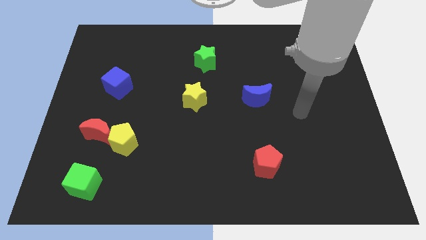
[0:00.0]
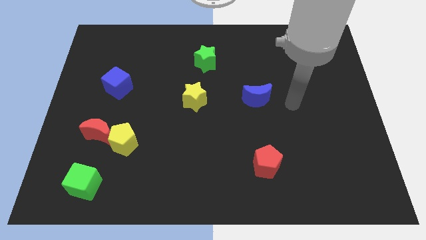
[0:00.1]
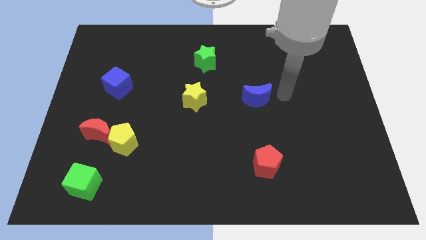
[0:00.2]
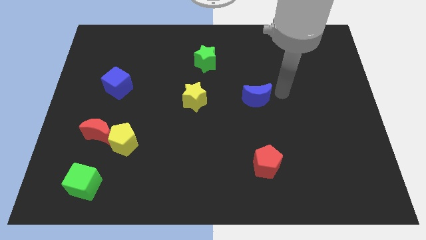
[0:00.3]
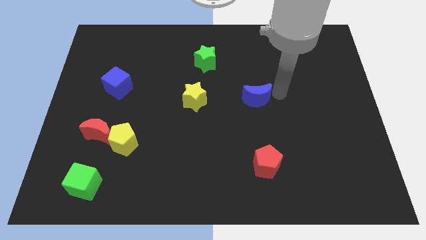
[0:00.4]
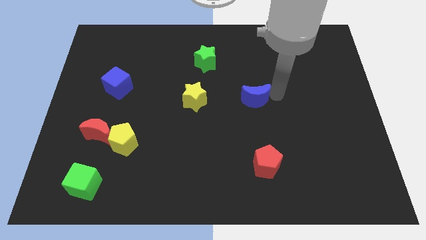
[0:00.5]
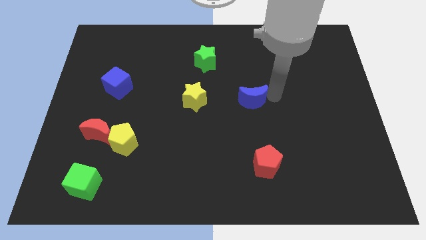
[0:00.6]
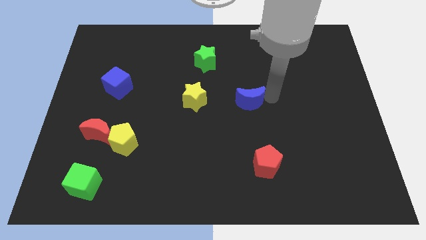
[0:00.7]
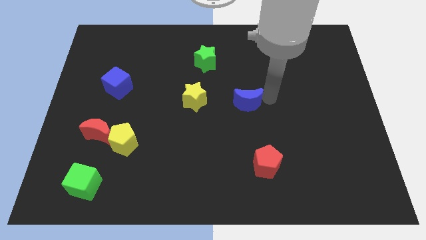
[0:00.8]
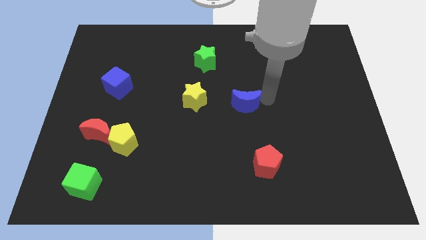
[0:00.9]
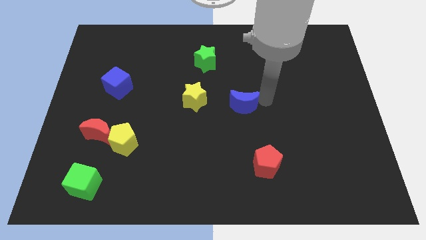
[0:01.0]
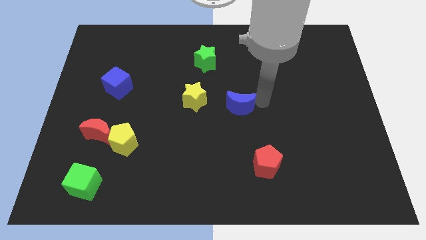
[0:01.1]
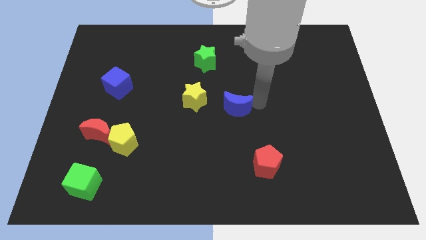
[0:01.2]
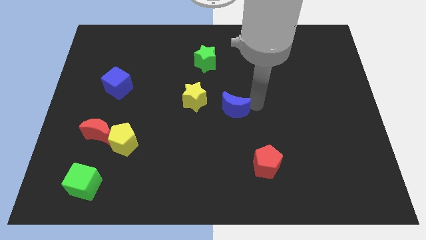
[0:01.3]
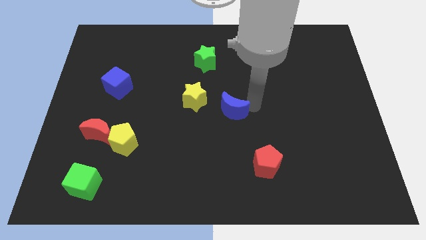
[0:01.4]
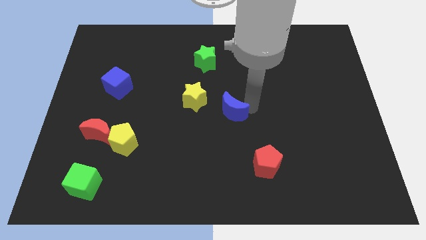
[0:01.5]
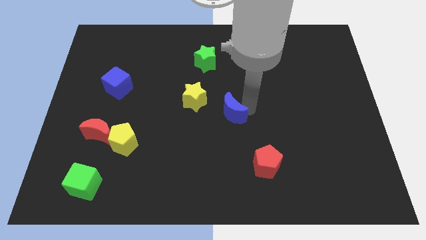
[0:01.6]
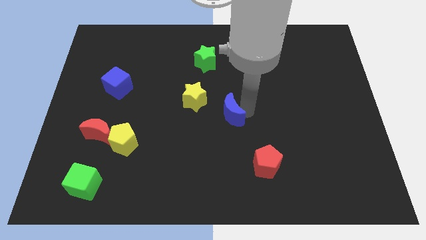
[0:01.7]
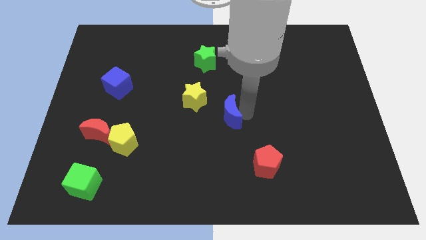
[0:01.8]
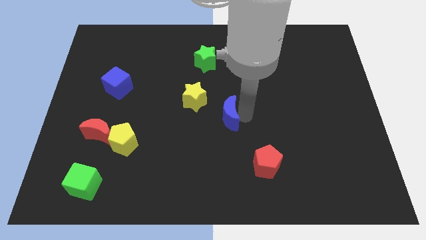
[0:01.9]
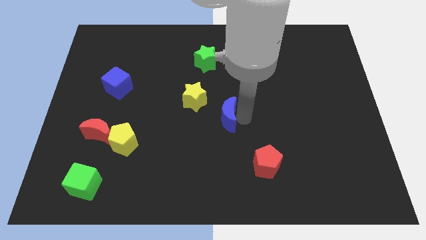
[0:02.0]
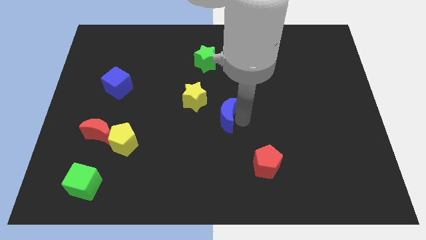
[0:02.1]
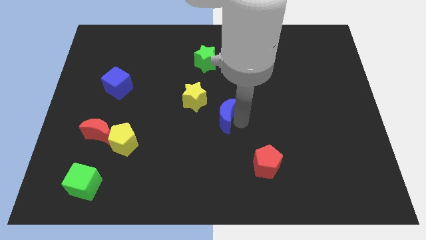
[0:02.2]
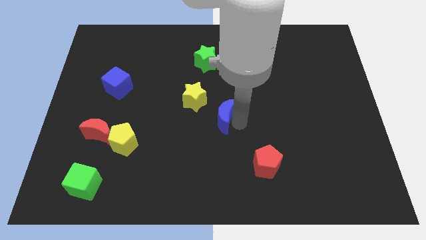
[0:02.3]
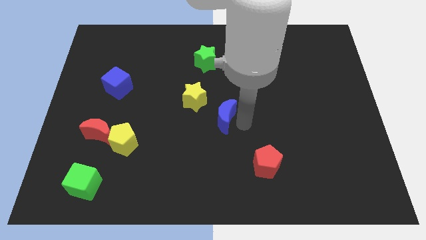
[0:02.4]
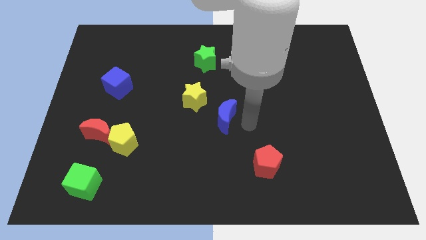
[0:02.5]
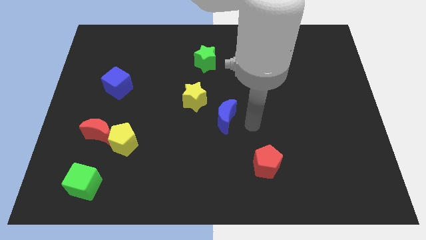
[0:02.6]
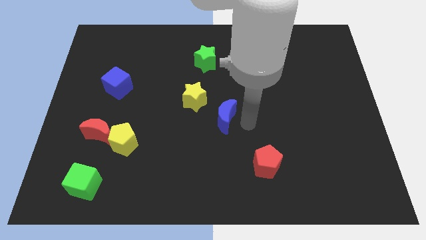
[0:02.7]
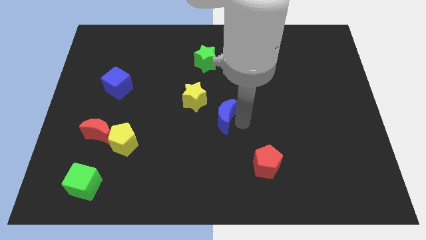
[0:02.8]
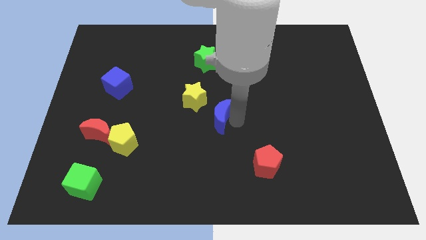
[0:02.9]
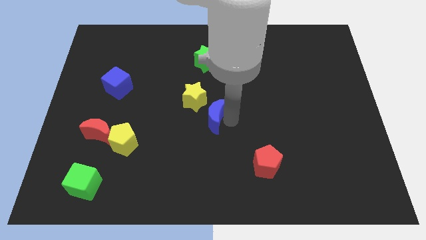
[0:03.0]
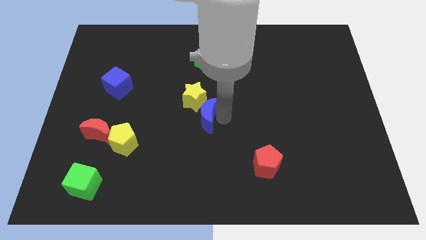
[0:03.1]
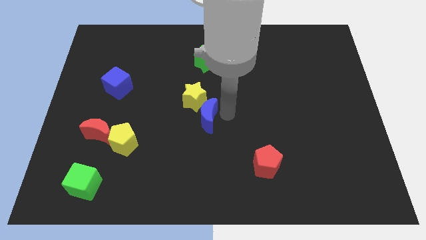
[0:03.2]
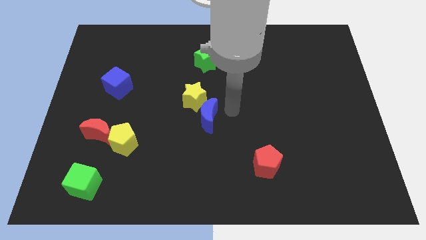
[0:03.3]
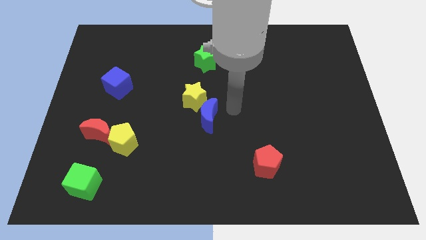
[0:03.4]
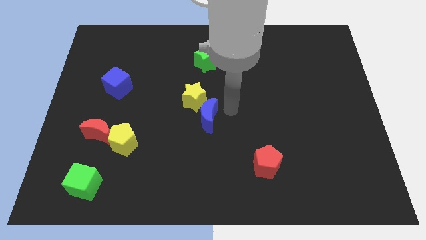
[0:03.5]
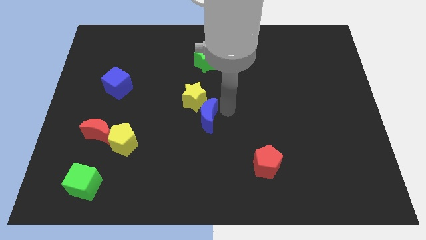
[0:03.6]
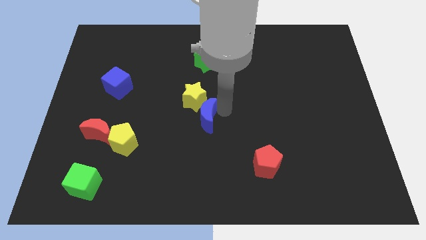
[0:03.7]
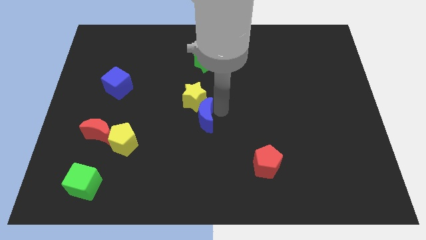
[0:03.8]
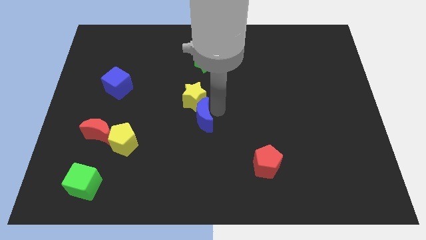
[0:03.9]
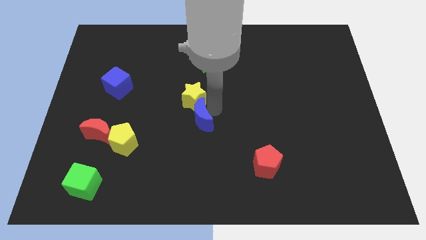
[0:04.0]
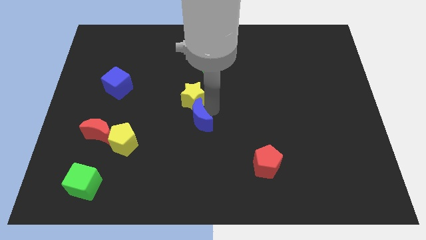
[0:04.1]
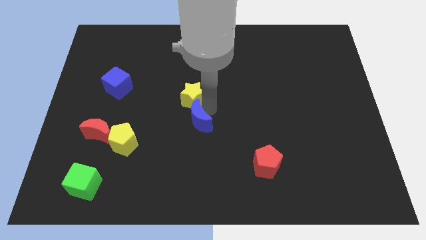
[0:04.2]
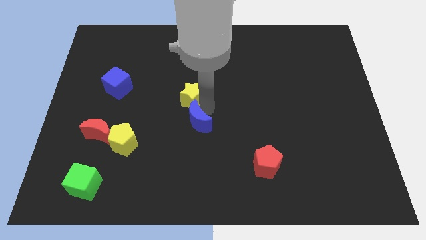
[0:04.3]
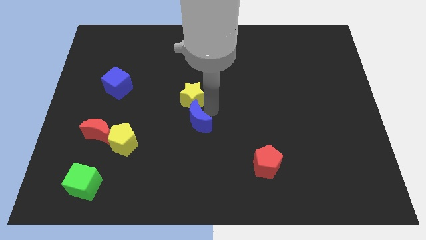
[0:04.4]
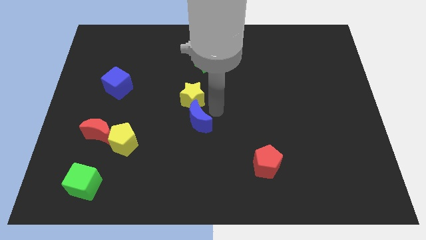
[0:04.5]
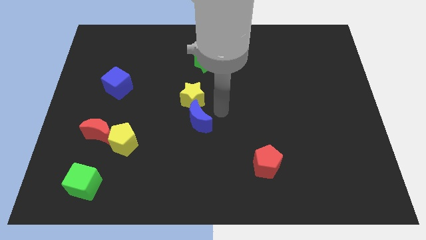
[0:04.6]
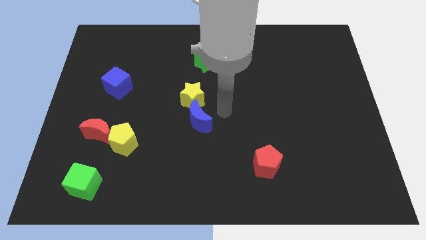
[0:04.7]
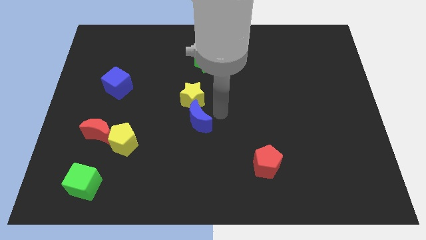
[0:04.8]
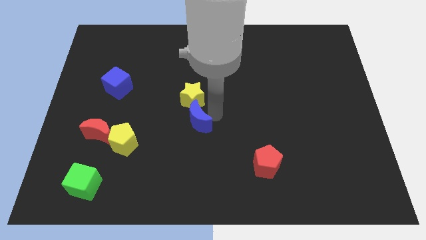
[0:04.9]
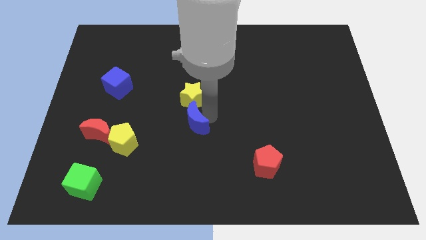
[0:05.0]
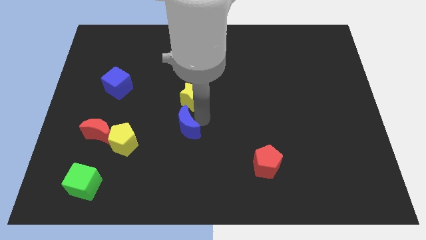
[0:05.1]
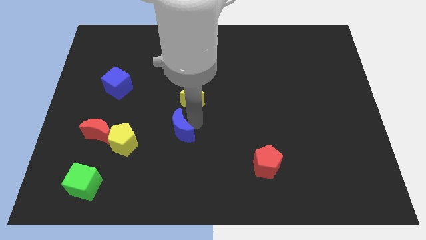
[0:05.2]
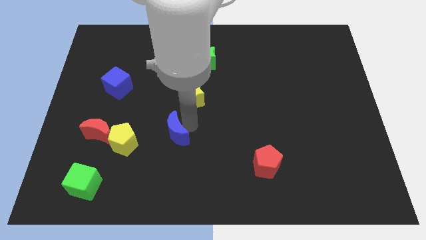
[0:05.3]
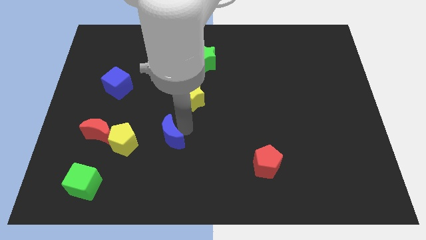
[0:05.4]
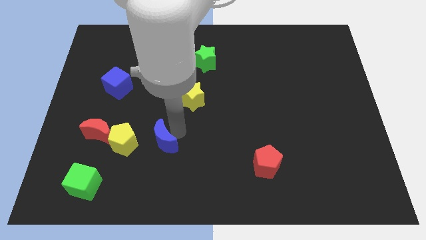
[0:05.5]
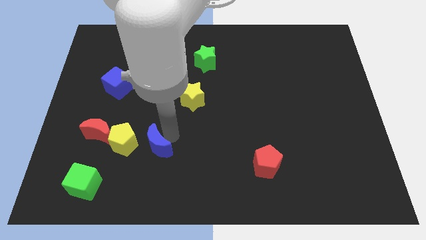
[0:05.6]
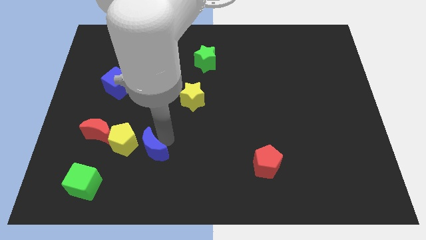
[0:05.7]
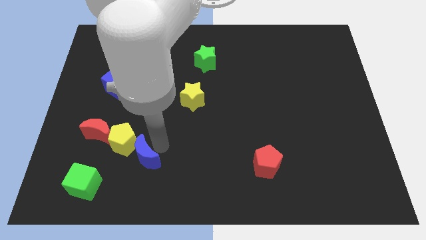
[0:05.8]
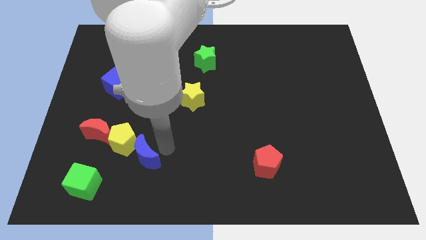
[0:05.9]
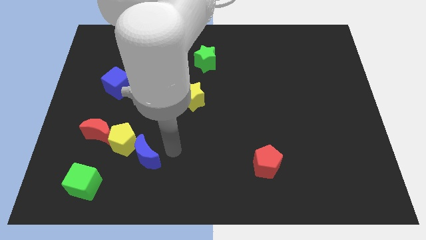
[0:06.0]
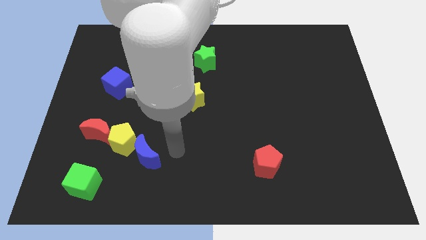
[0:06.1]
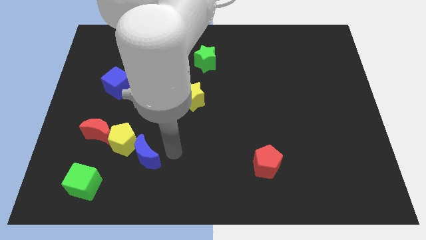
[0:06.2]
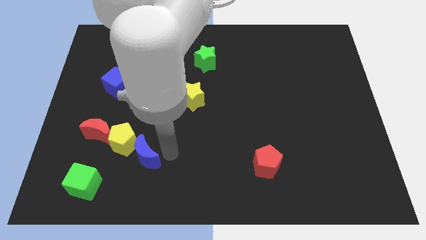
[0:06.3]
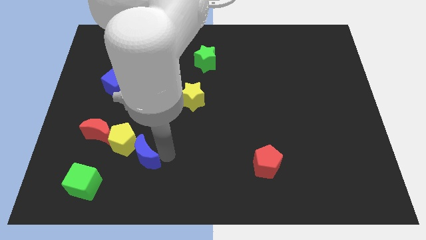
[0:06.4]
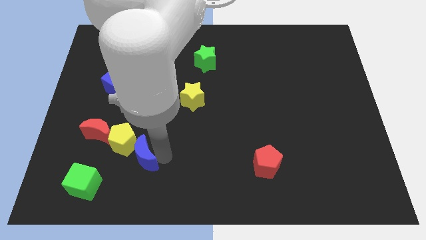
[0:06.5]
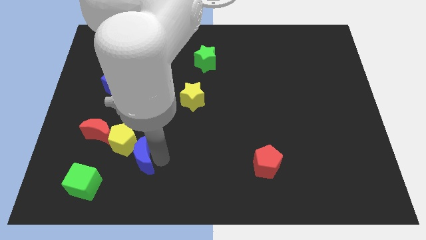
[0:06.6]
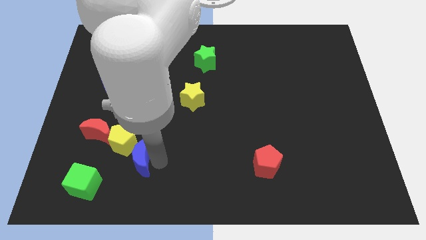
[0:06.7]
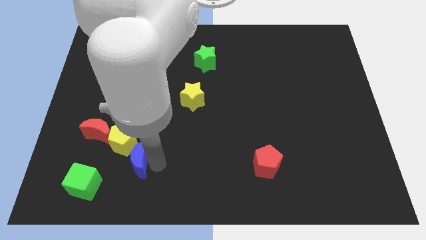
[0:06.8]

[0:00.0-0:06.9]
move the blue moon to the top right side of the green cube

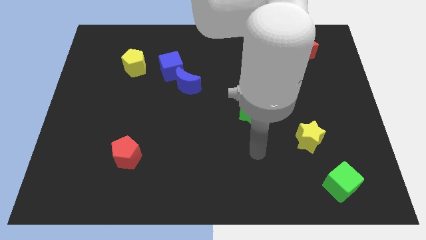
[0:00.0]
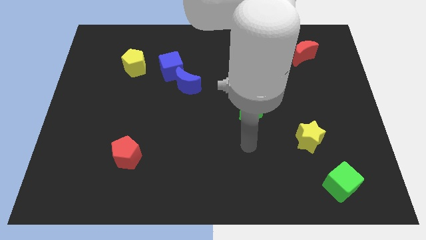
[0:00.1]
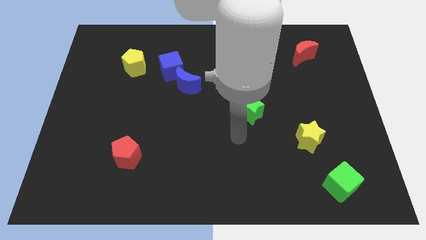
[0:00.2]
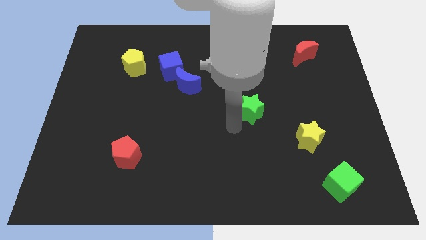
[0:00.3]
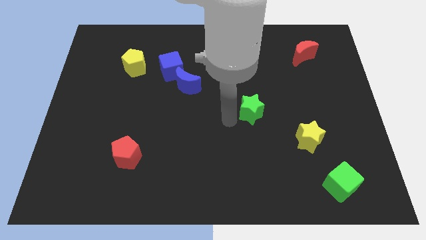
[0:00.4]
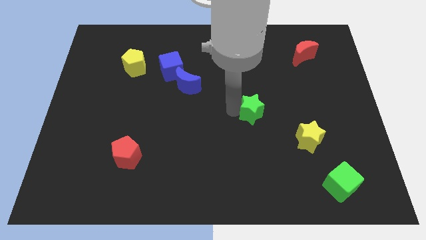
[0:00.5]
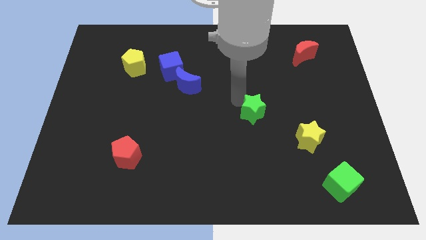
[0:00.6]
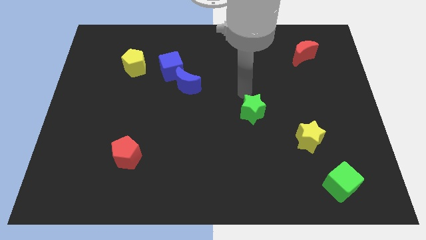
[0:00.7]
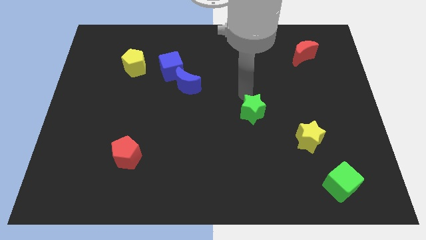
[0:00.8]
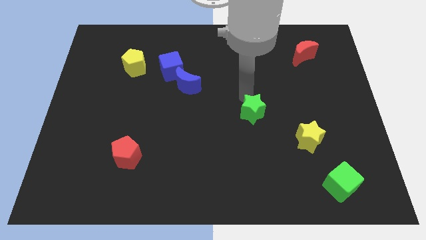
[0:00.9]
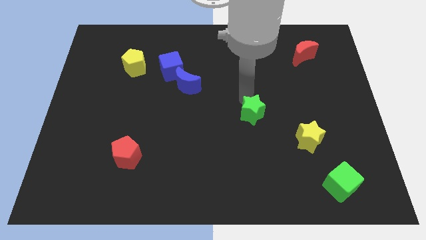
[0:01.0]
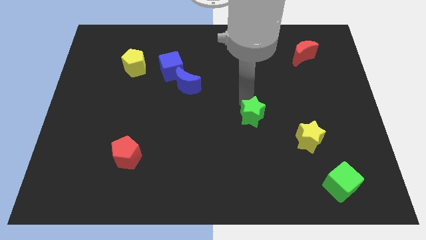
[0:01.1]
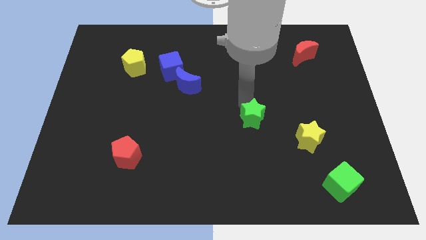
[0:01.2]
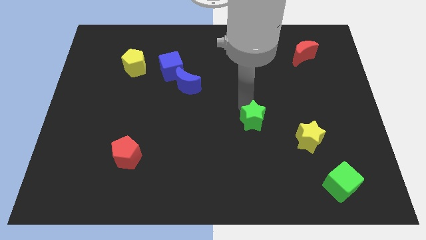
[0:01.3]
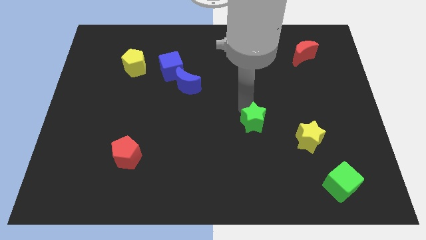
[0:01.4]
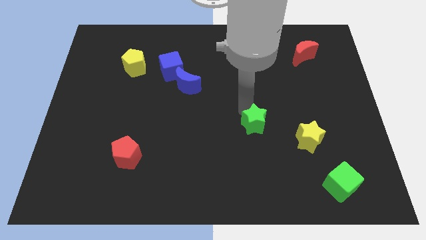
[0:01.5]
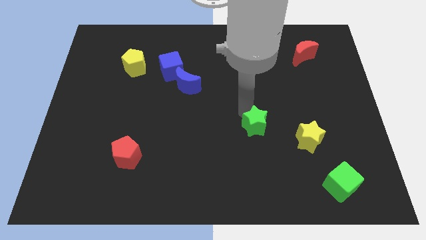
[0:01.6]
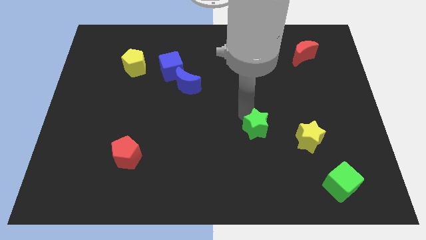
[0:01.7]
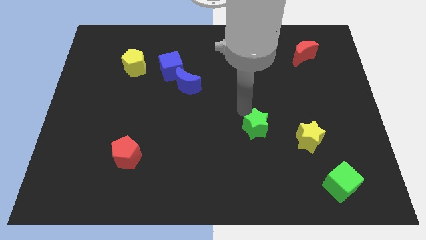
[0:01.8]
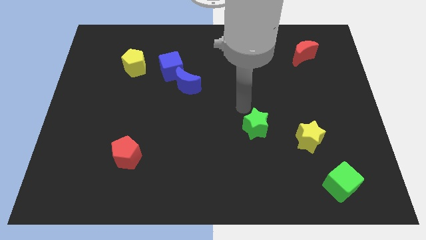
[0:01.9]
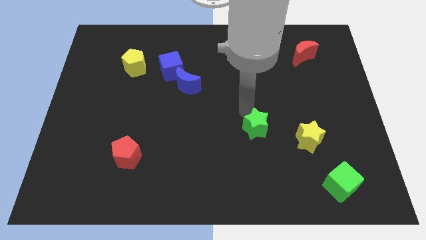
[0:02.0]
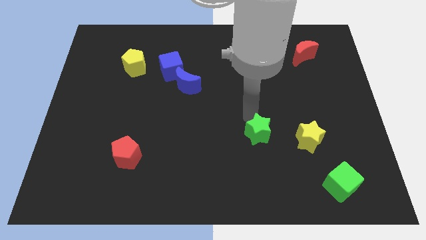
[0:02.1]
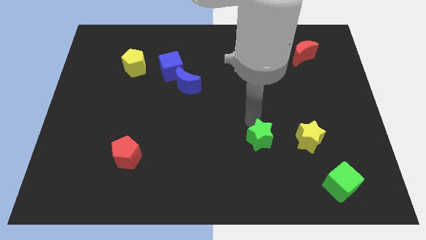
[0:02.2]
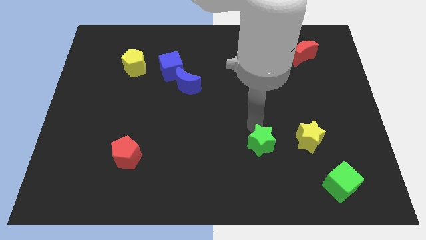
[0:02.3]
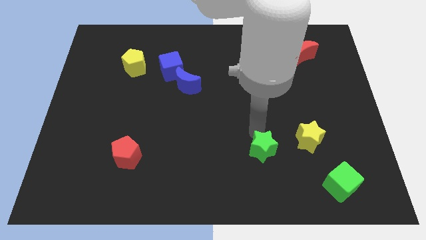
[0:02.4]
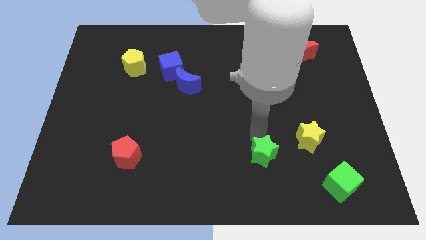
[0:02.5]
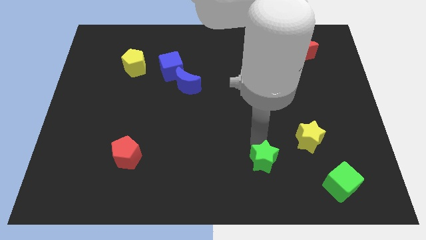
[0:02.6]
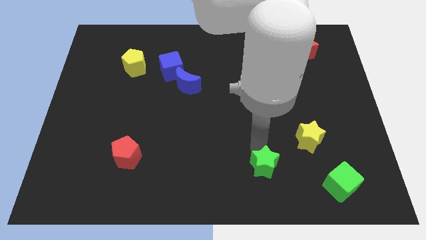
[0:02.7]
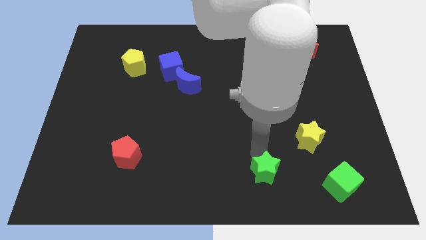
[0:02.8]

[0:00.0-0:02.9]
put the green star to the left side of the green cube
